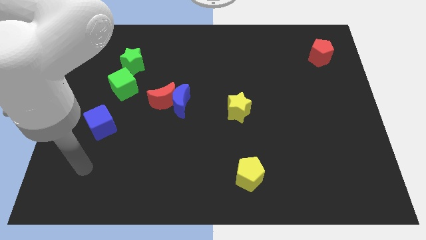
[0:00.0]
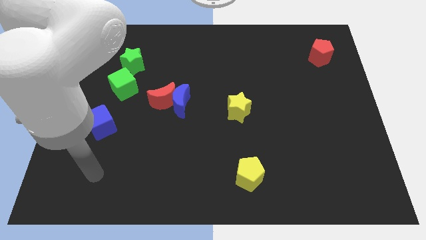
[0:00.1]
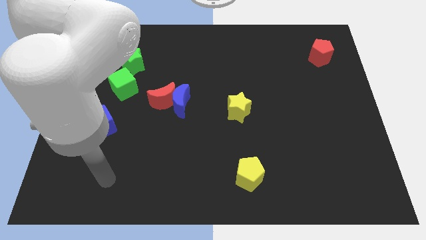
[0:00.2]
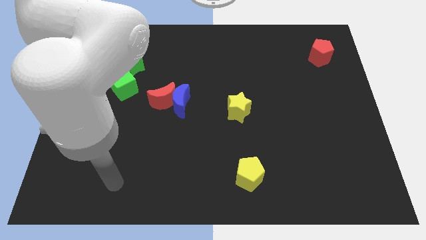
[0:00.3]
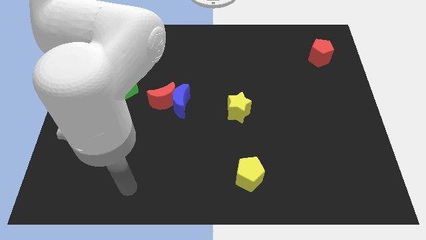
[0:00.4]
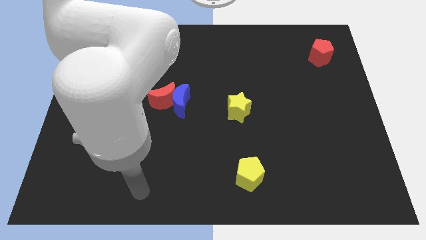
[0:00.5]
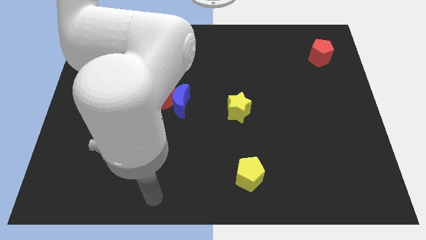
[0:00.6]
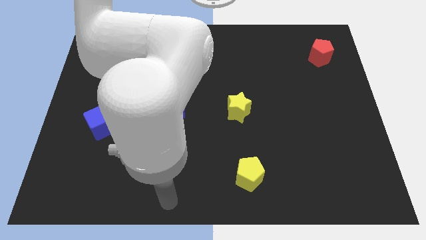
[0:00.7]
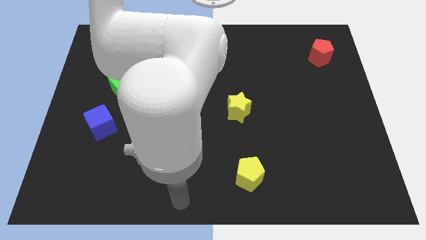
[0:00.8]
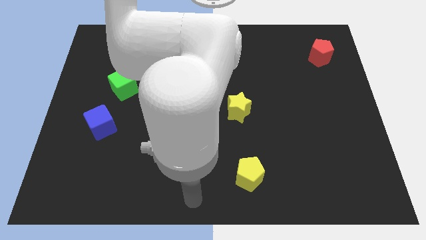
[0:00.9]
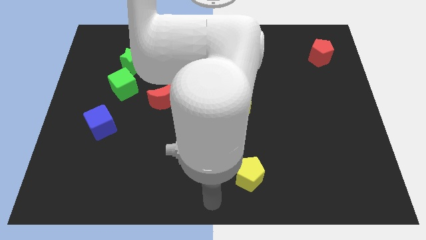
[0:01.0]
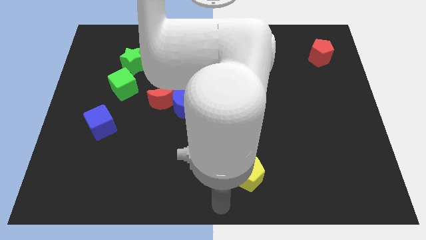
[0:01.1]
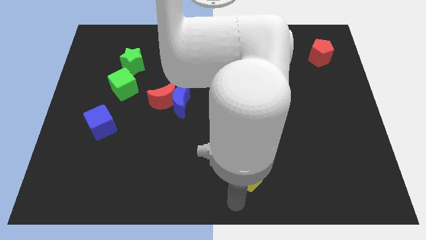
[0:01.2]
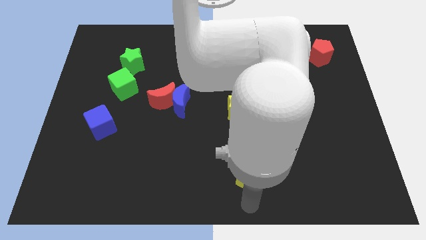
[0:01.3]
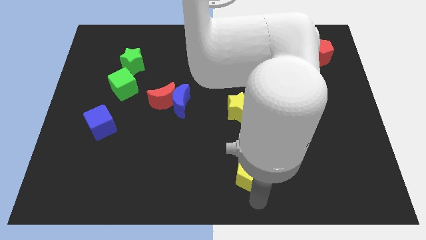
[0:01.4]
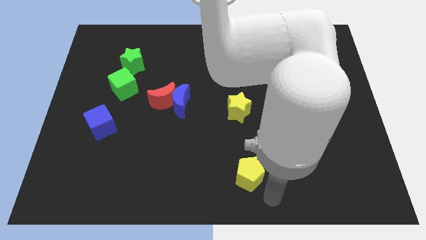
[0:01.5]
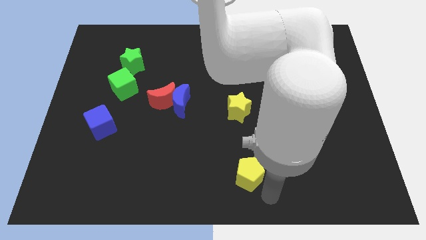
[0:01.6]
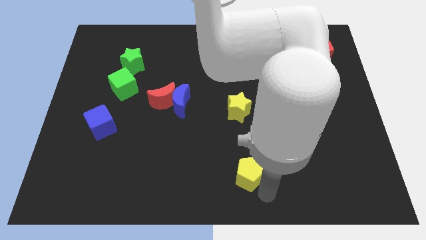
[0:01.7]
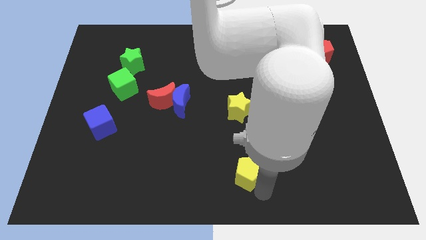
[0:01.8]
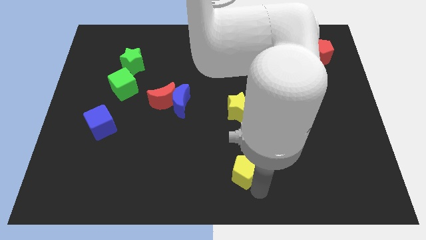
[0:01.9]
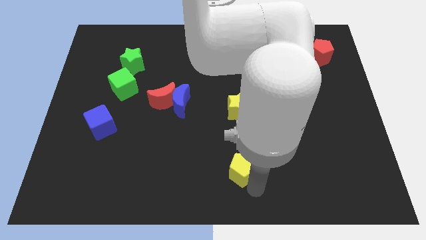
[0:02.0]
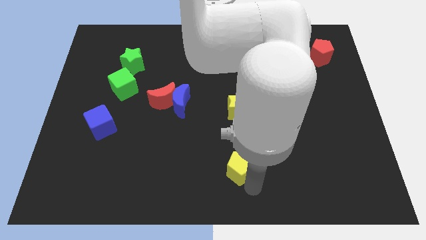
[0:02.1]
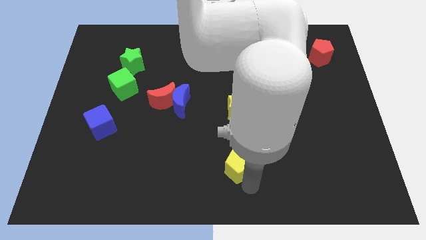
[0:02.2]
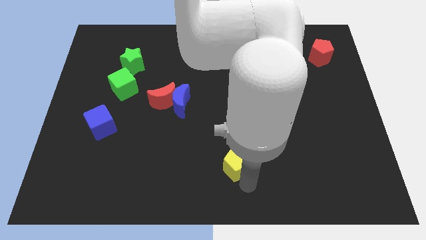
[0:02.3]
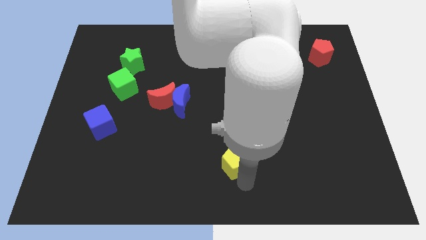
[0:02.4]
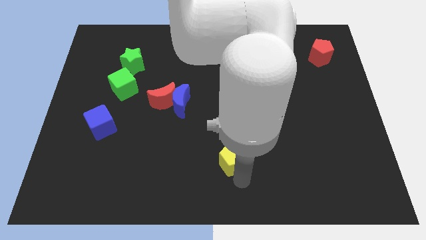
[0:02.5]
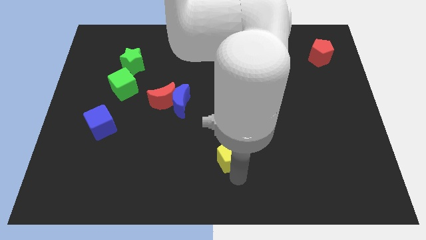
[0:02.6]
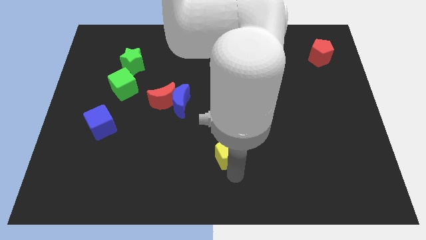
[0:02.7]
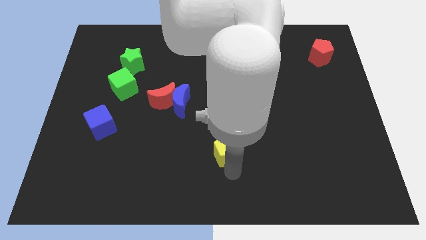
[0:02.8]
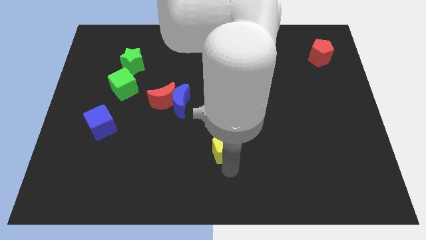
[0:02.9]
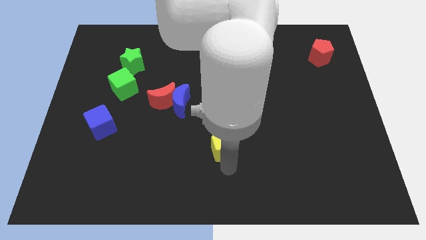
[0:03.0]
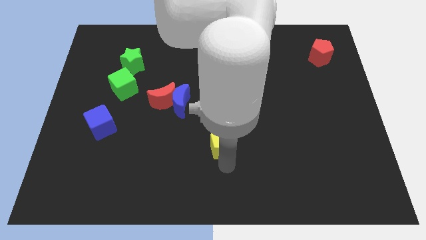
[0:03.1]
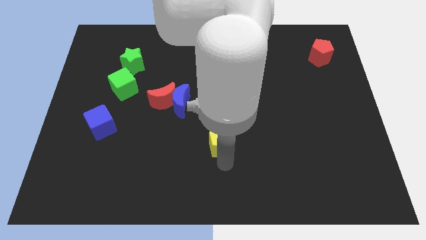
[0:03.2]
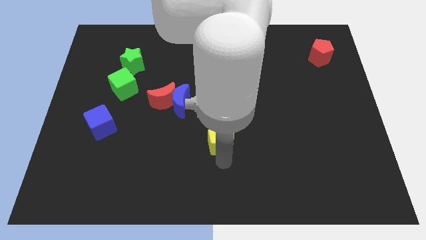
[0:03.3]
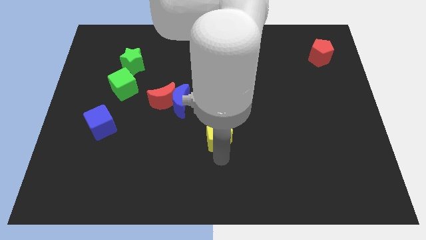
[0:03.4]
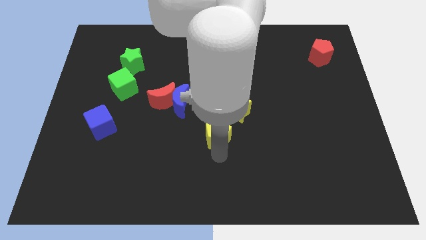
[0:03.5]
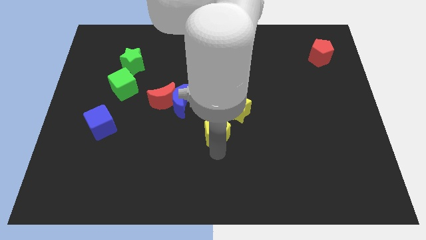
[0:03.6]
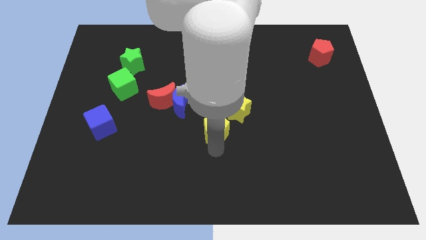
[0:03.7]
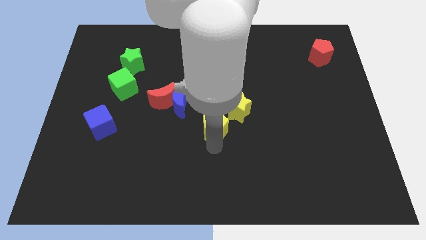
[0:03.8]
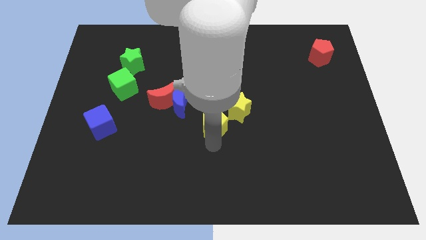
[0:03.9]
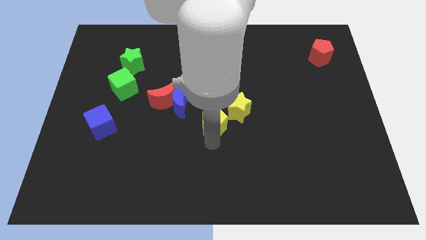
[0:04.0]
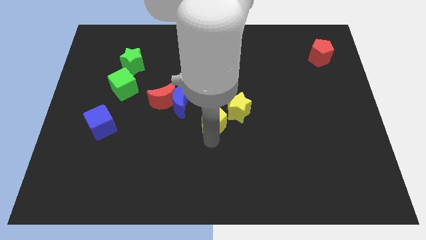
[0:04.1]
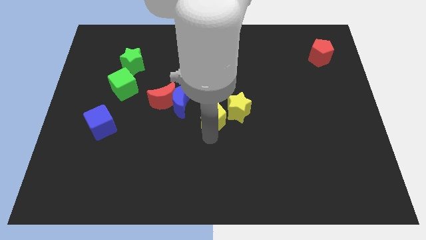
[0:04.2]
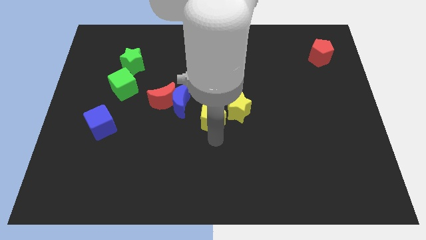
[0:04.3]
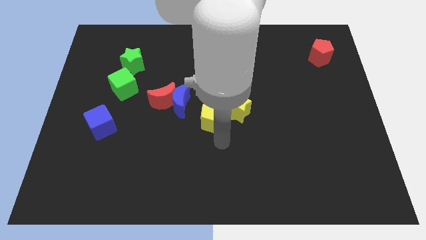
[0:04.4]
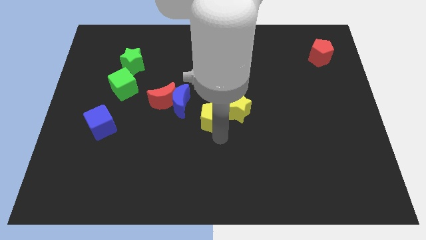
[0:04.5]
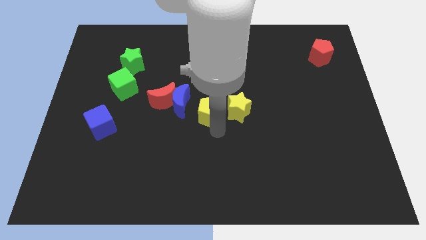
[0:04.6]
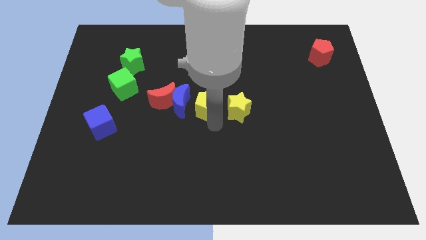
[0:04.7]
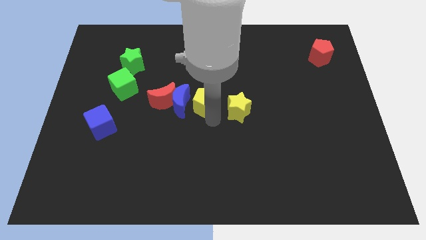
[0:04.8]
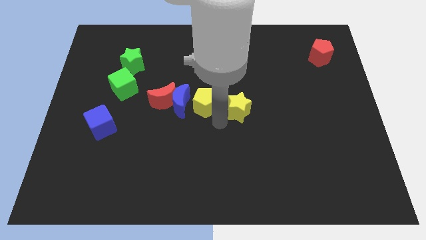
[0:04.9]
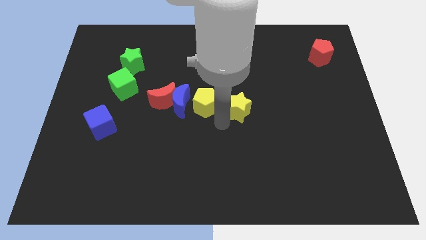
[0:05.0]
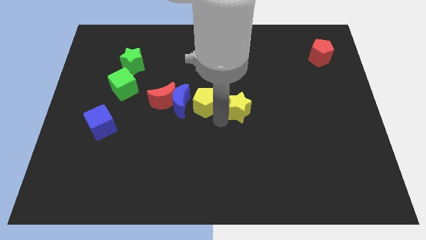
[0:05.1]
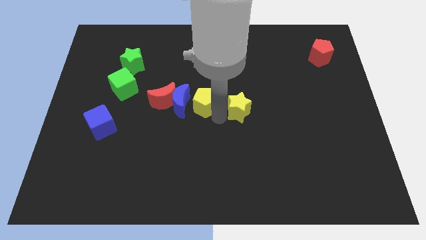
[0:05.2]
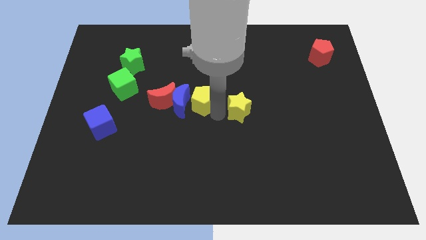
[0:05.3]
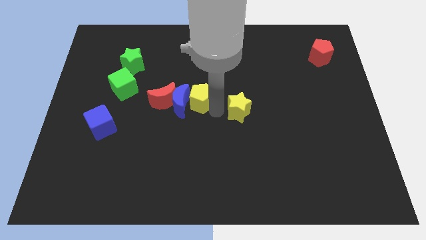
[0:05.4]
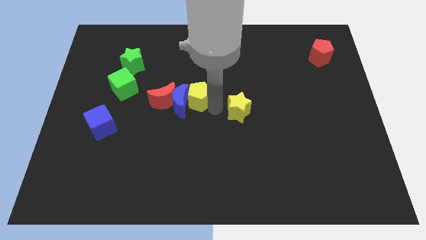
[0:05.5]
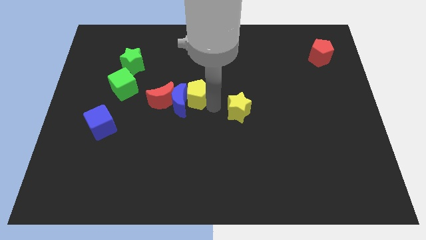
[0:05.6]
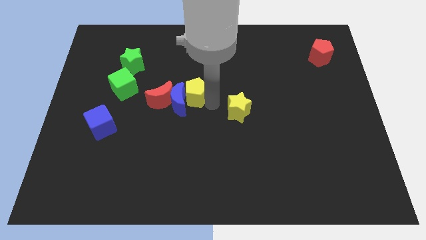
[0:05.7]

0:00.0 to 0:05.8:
put the yellow pentagon above the blue moon

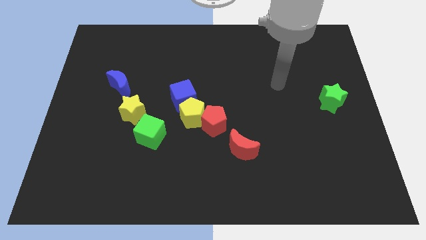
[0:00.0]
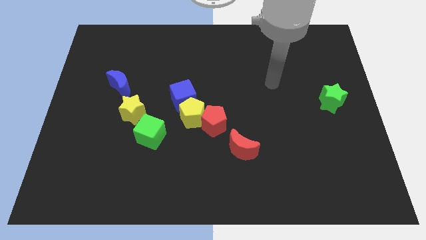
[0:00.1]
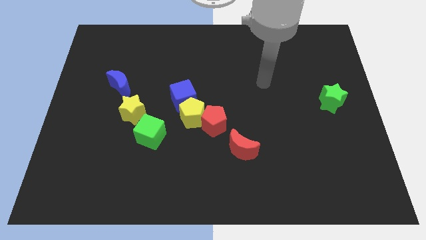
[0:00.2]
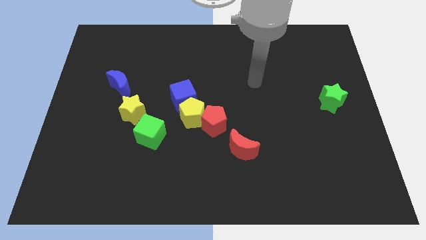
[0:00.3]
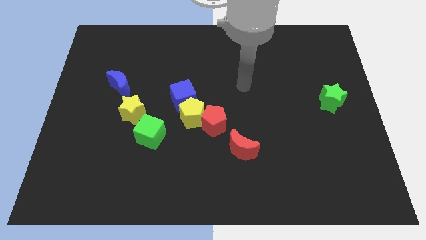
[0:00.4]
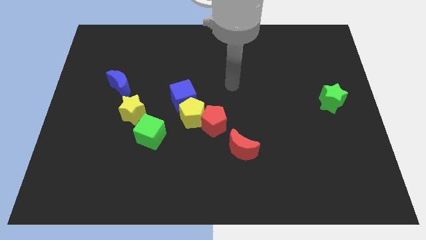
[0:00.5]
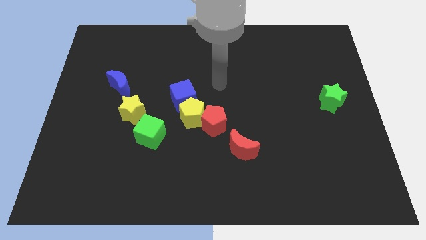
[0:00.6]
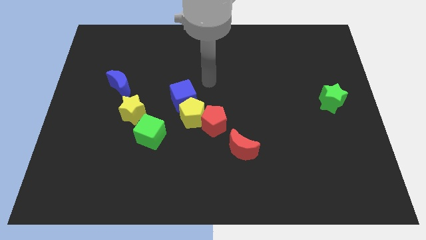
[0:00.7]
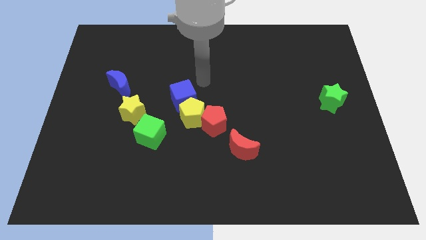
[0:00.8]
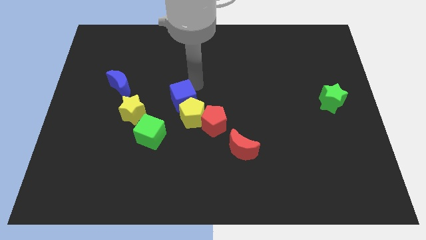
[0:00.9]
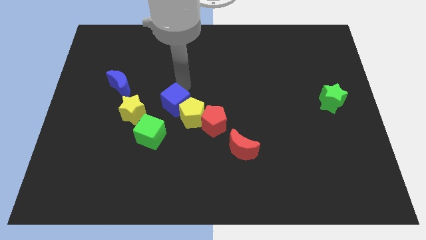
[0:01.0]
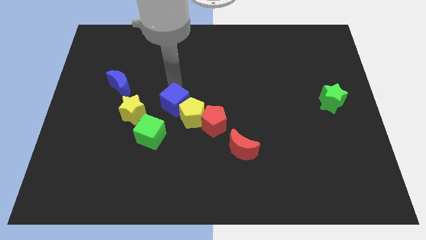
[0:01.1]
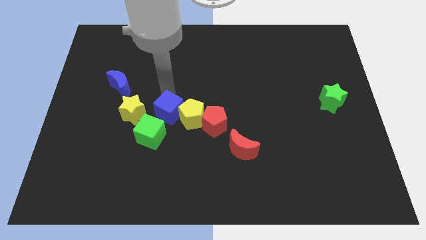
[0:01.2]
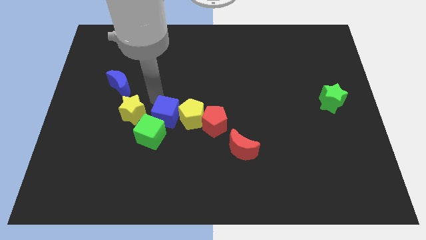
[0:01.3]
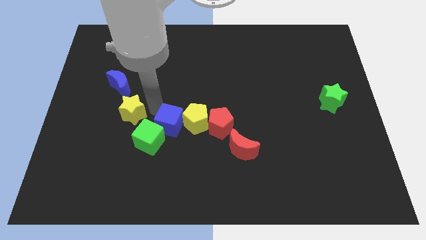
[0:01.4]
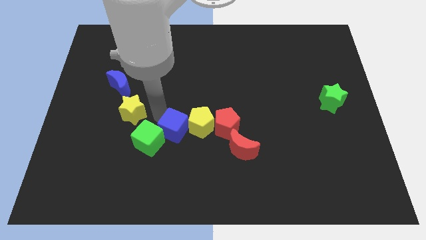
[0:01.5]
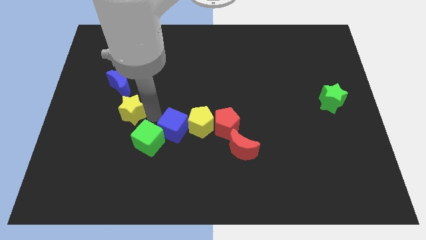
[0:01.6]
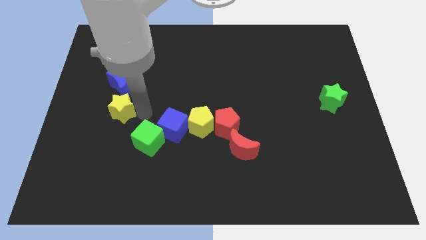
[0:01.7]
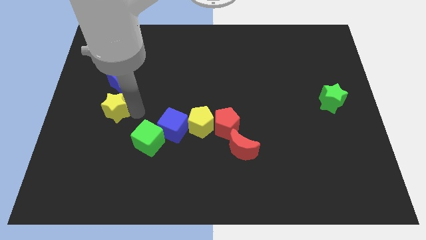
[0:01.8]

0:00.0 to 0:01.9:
push the yellow star to the bottom left side of the blue moon
